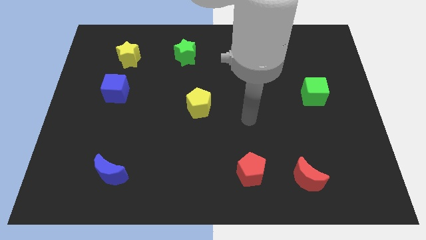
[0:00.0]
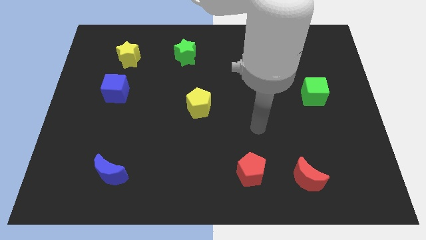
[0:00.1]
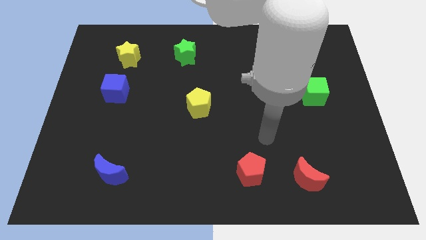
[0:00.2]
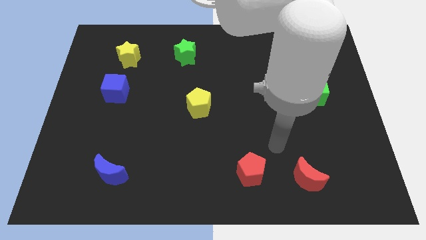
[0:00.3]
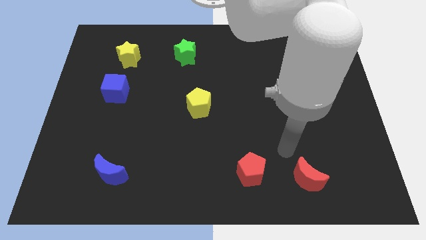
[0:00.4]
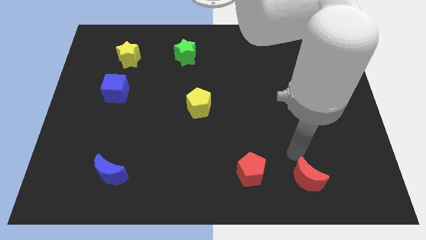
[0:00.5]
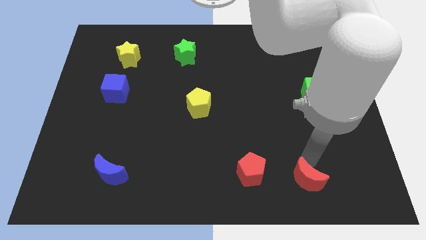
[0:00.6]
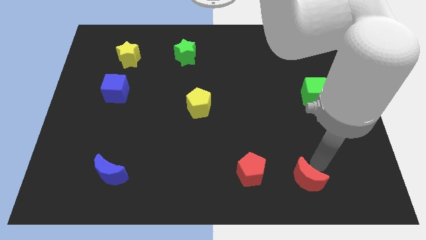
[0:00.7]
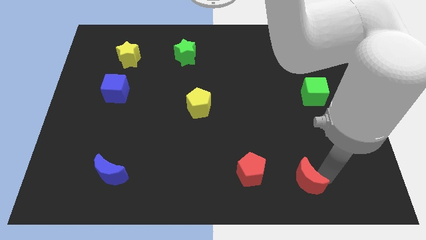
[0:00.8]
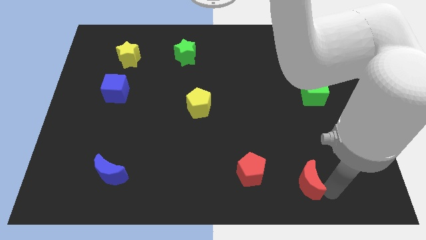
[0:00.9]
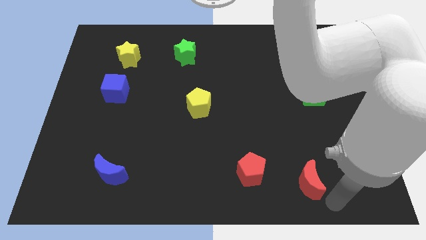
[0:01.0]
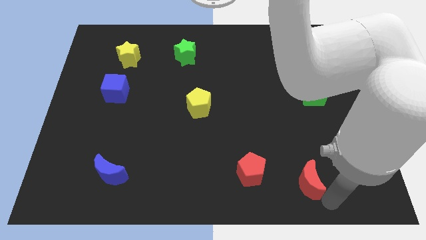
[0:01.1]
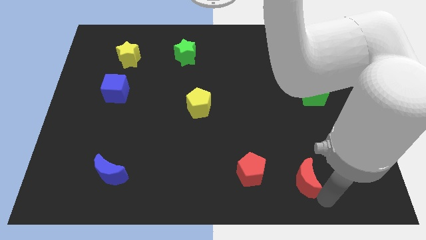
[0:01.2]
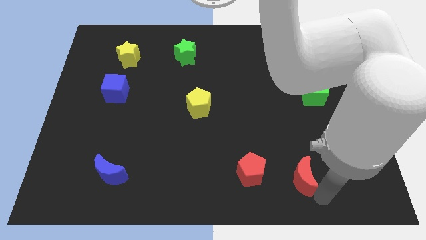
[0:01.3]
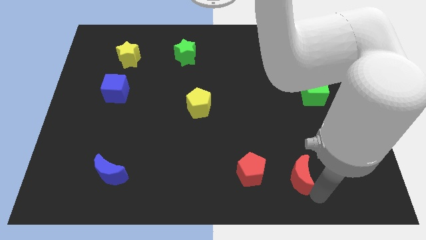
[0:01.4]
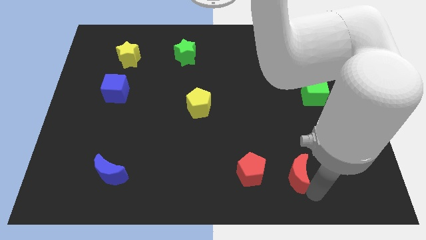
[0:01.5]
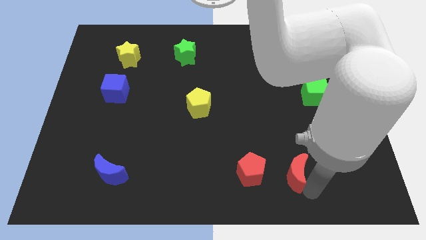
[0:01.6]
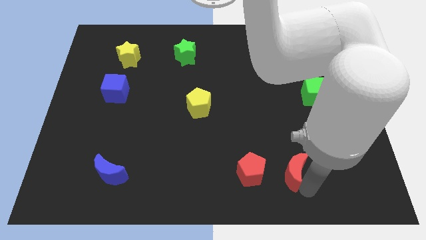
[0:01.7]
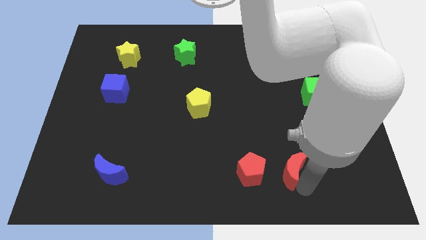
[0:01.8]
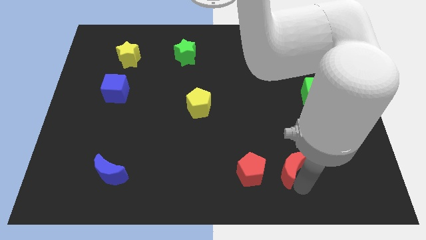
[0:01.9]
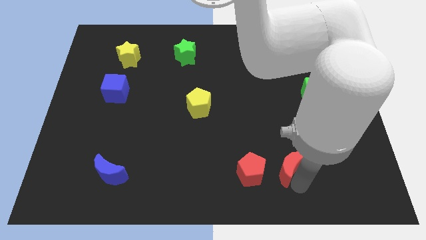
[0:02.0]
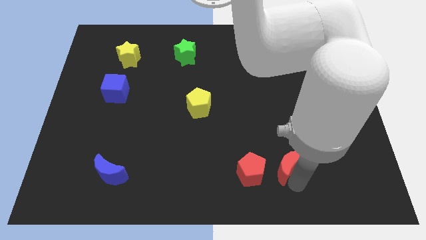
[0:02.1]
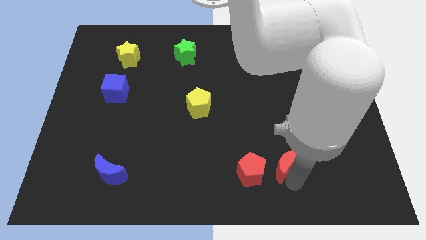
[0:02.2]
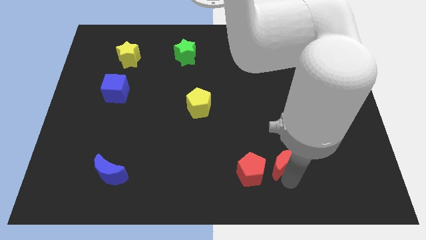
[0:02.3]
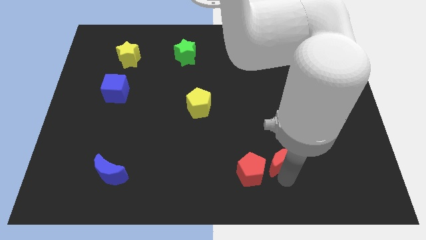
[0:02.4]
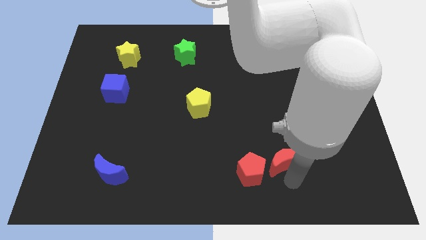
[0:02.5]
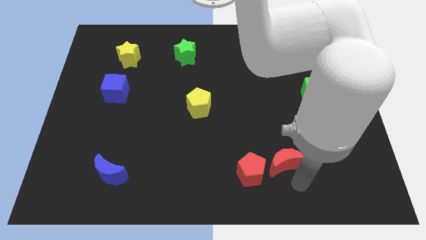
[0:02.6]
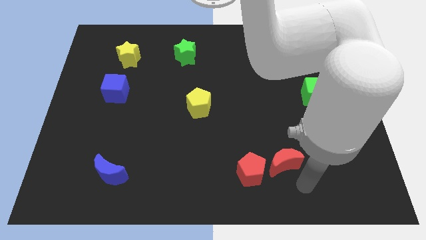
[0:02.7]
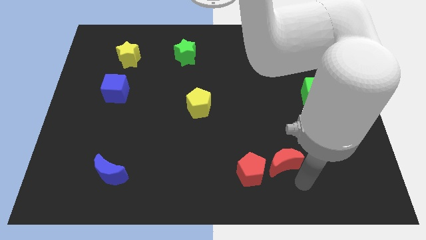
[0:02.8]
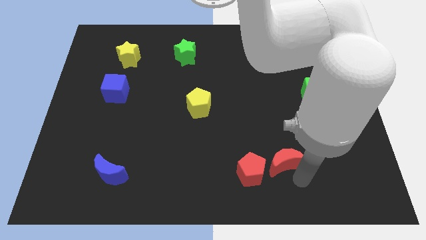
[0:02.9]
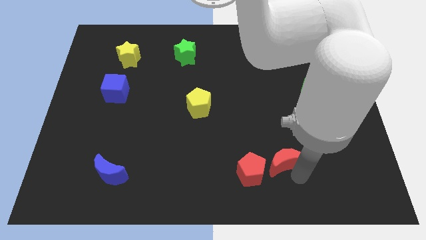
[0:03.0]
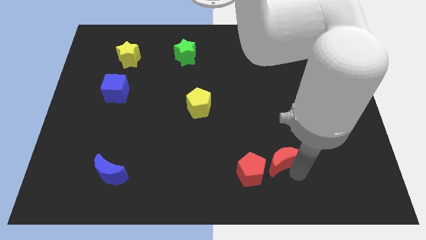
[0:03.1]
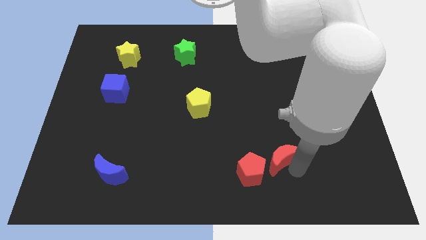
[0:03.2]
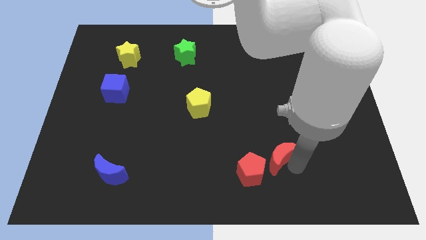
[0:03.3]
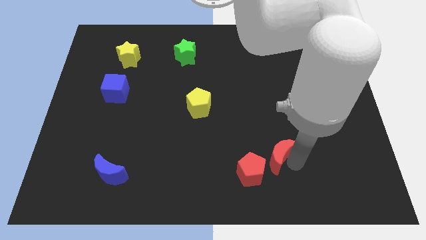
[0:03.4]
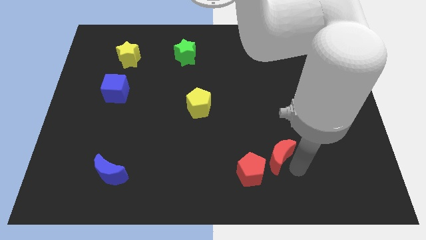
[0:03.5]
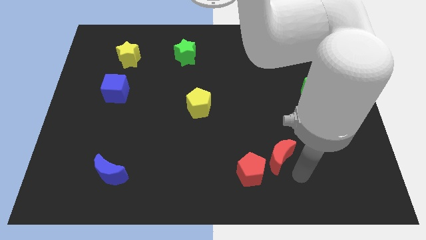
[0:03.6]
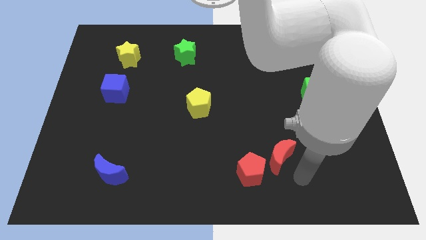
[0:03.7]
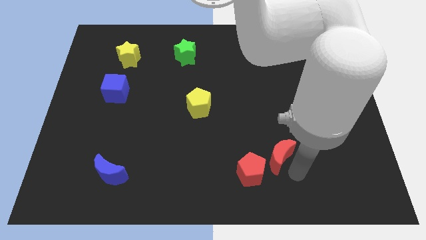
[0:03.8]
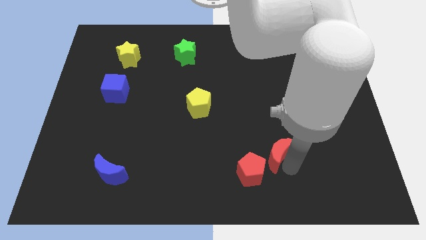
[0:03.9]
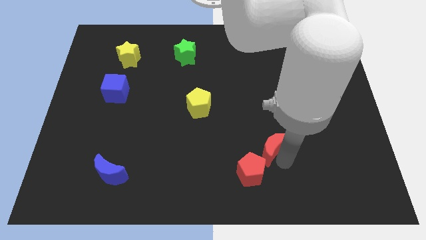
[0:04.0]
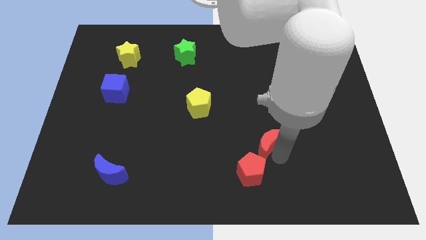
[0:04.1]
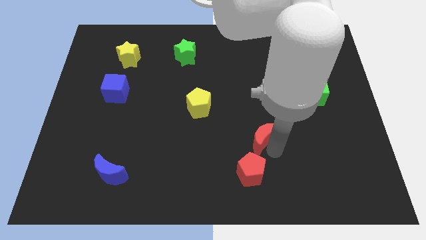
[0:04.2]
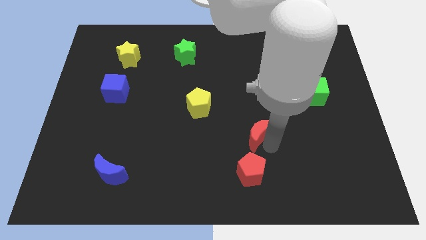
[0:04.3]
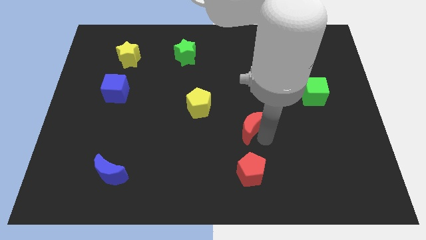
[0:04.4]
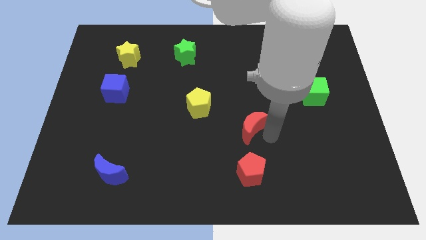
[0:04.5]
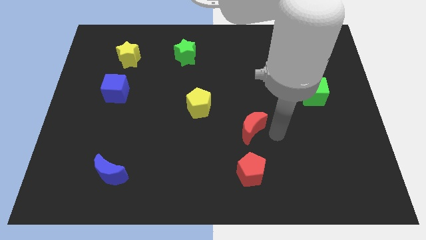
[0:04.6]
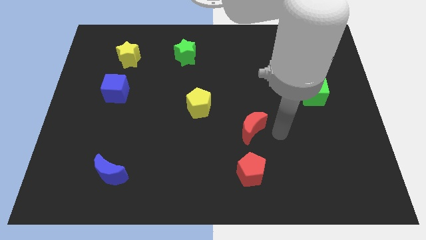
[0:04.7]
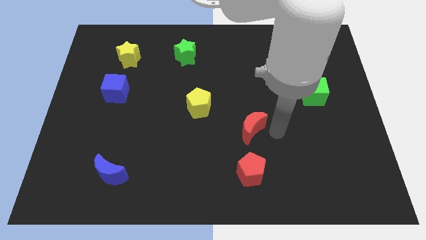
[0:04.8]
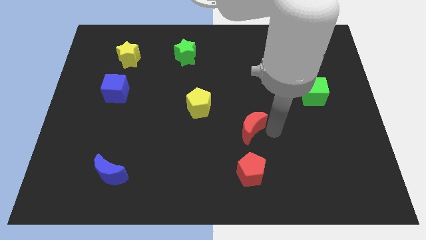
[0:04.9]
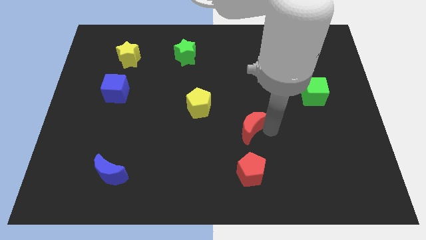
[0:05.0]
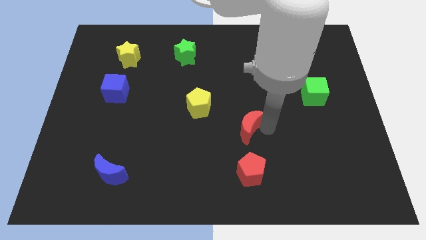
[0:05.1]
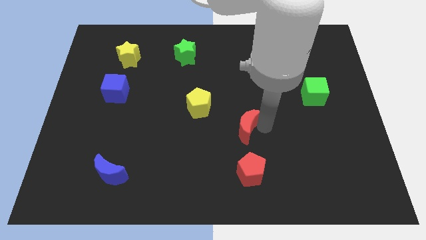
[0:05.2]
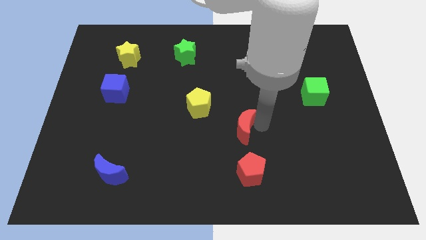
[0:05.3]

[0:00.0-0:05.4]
put the red moon to the bottom right side of the yellow pentagon

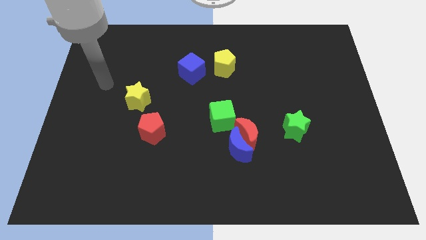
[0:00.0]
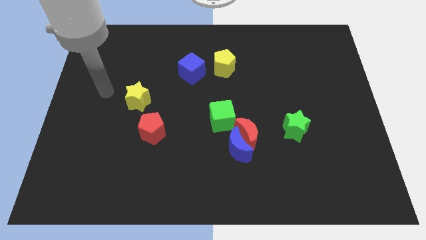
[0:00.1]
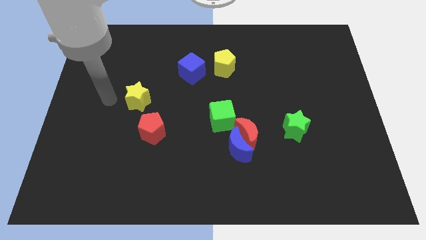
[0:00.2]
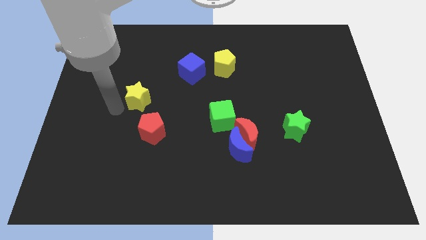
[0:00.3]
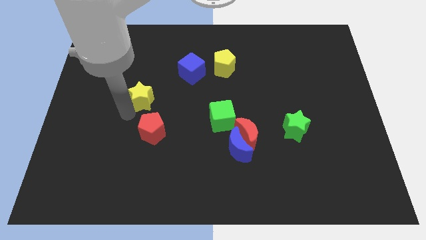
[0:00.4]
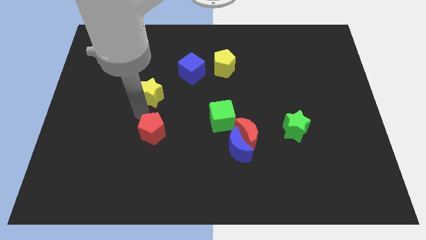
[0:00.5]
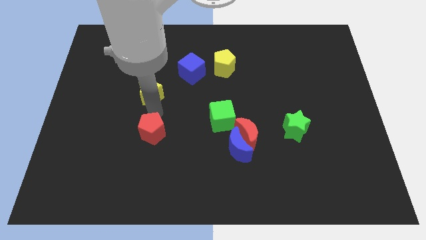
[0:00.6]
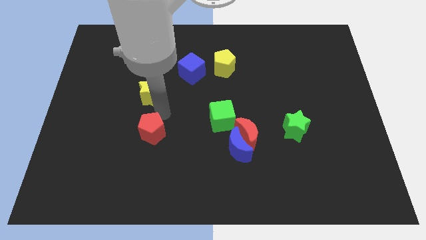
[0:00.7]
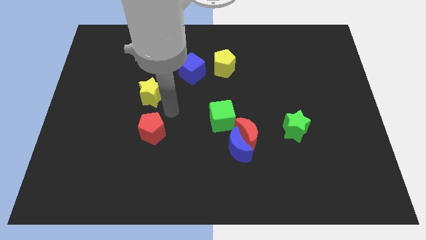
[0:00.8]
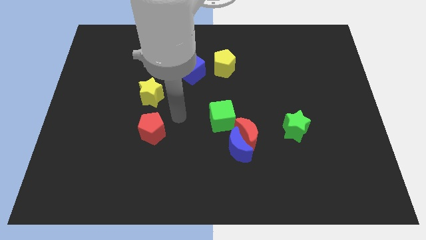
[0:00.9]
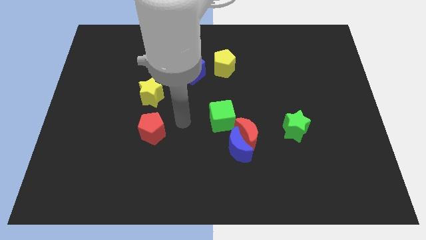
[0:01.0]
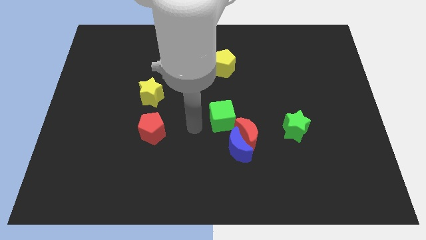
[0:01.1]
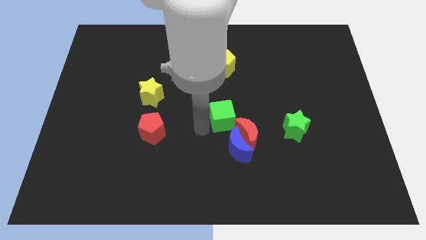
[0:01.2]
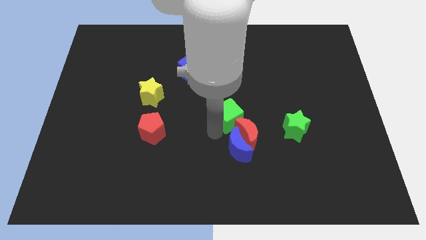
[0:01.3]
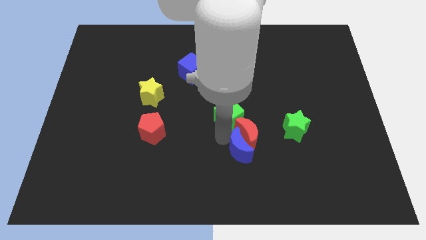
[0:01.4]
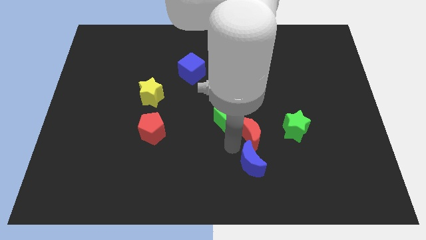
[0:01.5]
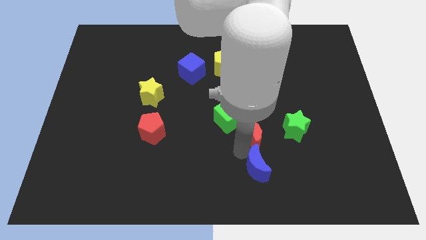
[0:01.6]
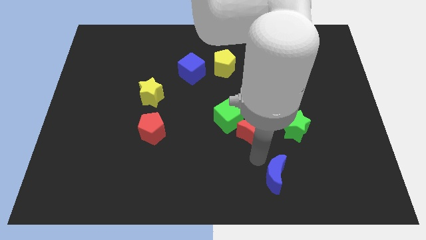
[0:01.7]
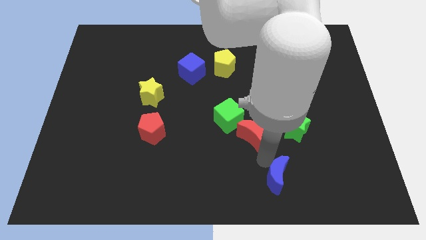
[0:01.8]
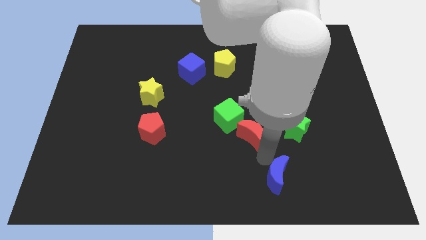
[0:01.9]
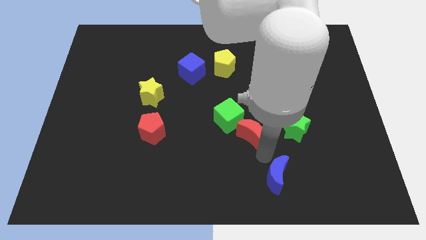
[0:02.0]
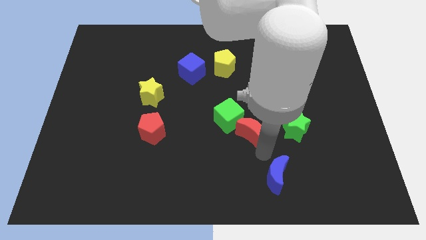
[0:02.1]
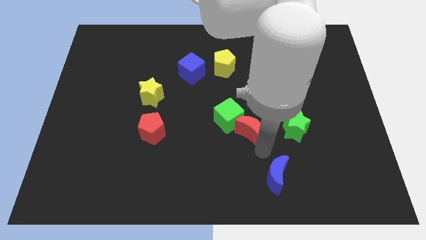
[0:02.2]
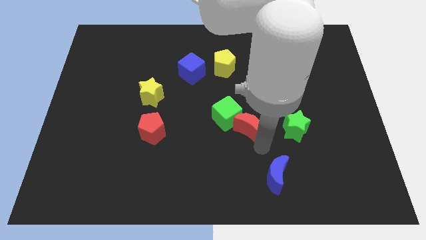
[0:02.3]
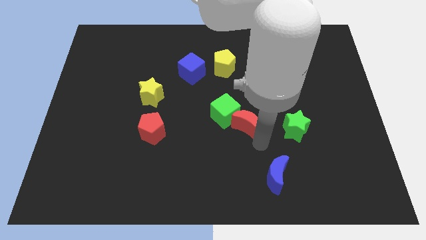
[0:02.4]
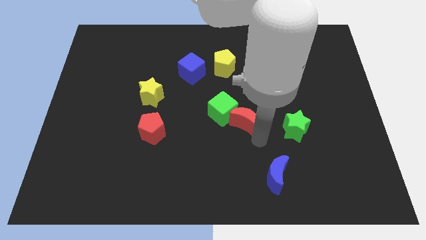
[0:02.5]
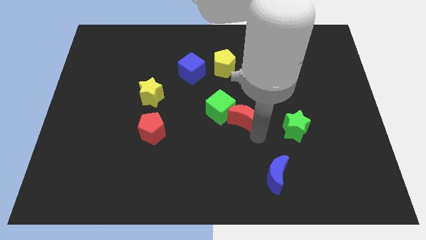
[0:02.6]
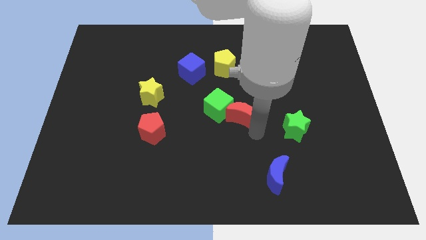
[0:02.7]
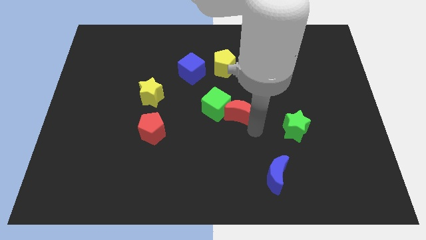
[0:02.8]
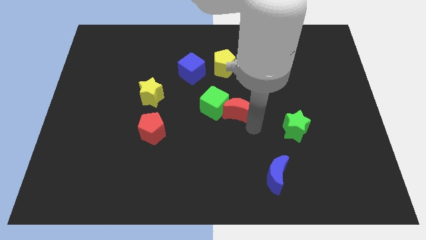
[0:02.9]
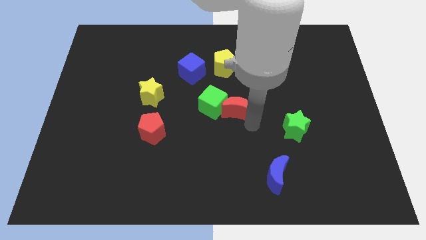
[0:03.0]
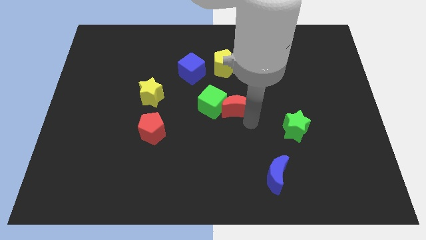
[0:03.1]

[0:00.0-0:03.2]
move the red moon to the top right of the green cube
